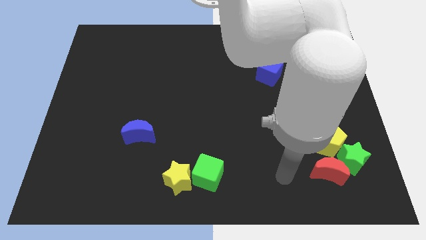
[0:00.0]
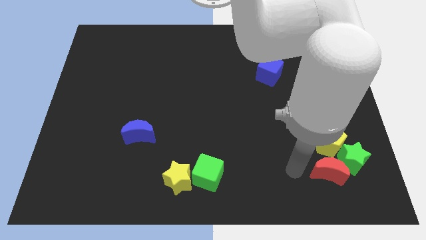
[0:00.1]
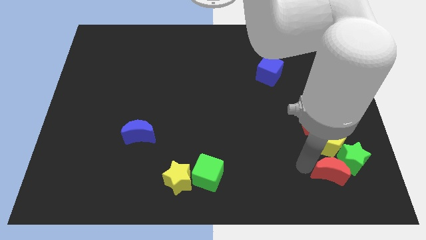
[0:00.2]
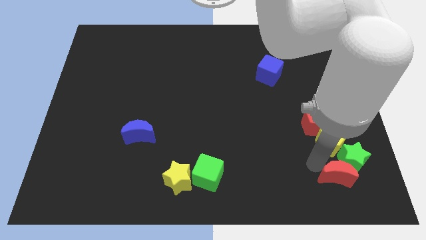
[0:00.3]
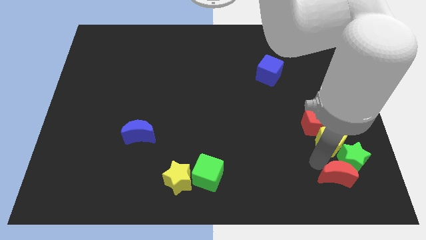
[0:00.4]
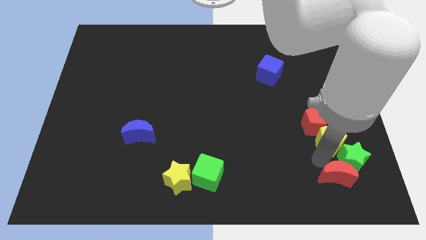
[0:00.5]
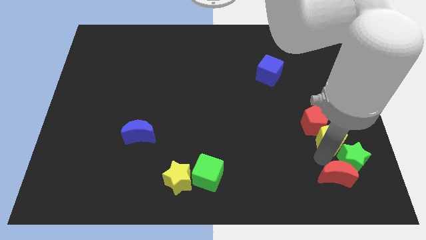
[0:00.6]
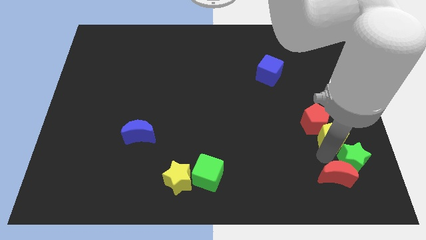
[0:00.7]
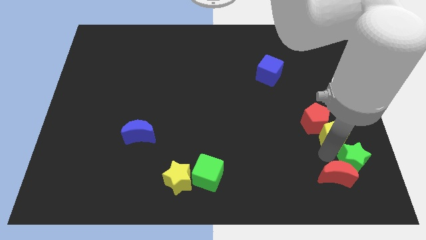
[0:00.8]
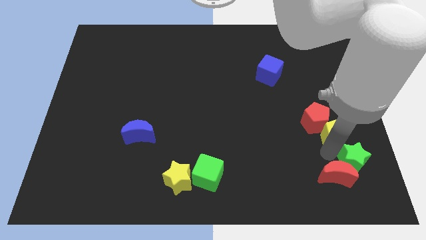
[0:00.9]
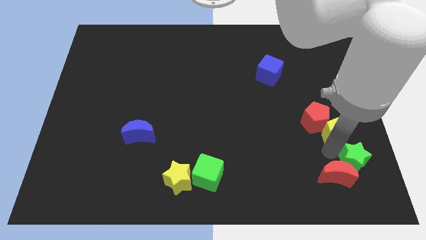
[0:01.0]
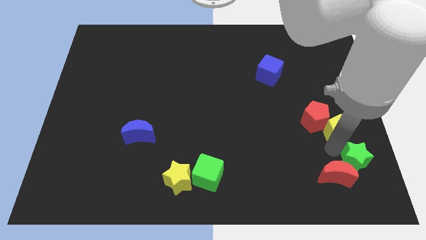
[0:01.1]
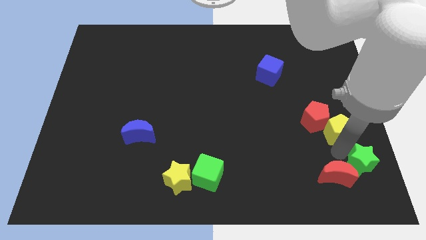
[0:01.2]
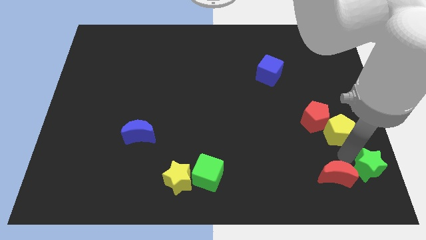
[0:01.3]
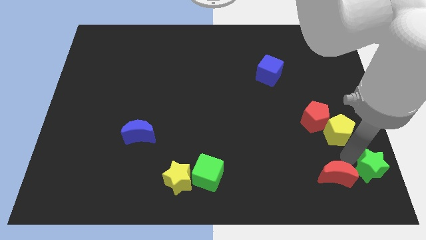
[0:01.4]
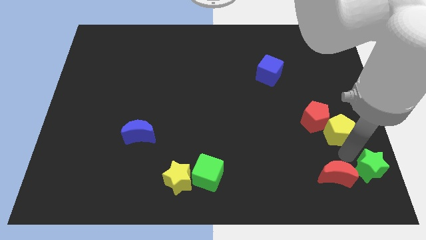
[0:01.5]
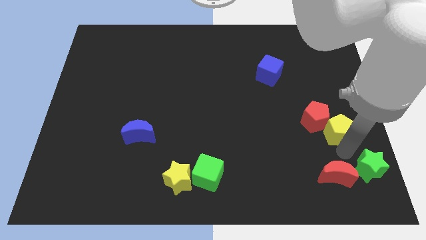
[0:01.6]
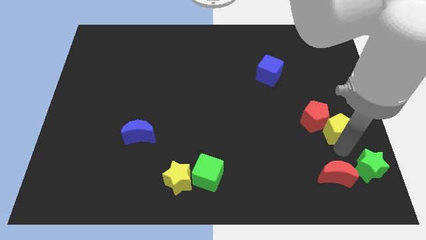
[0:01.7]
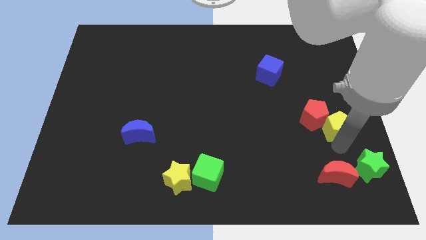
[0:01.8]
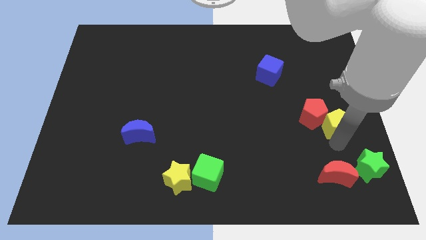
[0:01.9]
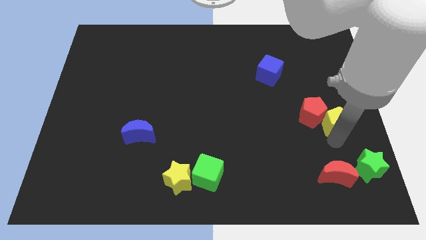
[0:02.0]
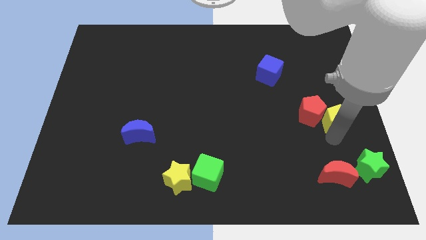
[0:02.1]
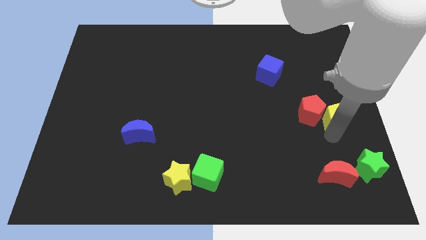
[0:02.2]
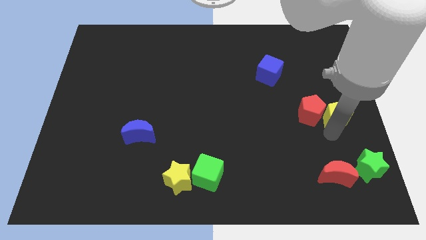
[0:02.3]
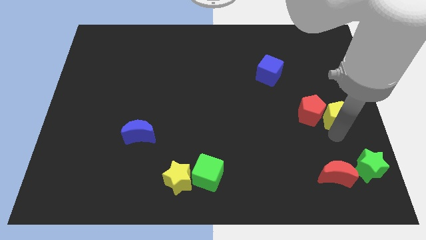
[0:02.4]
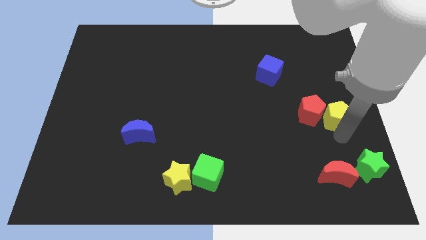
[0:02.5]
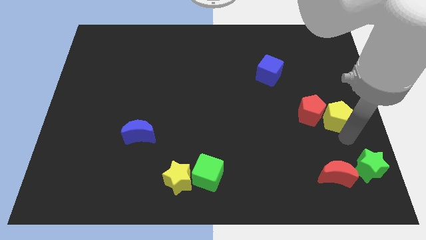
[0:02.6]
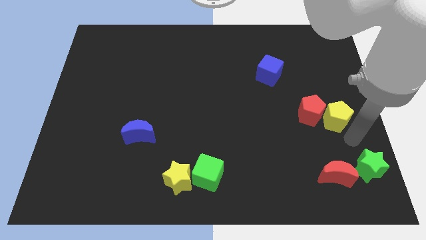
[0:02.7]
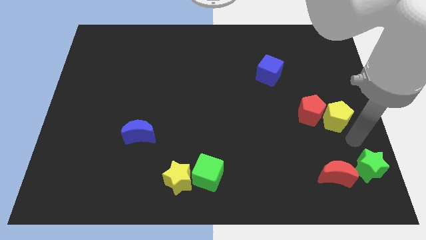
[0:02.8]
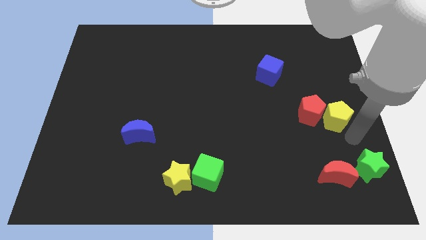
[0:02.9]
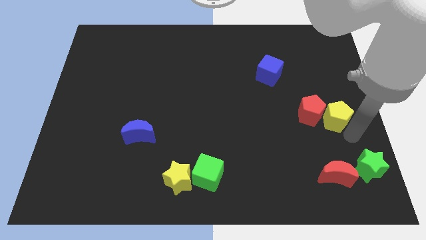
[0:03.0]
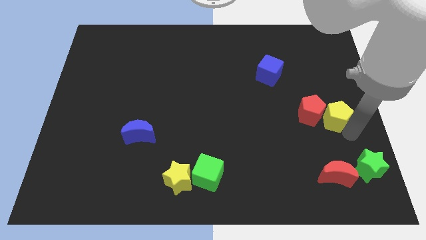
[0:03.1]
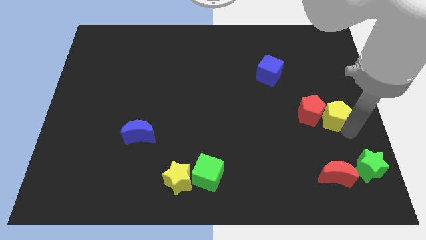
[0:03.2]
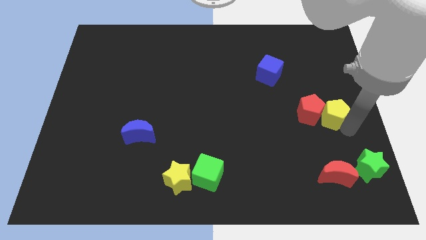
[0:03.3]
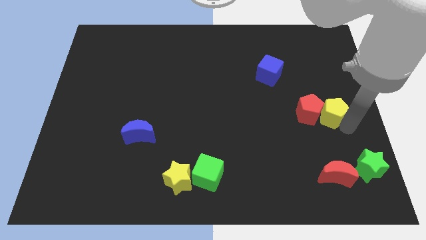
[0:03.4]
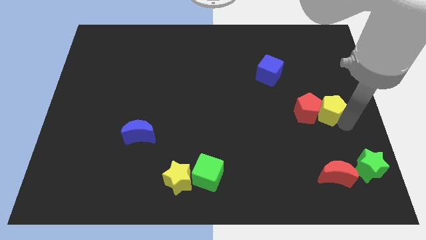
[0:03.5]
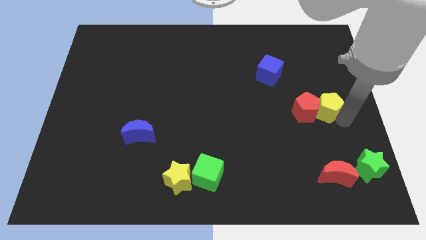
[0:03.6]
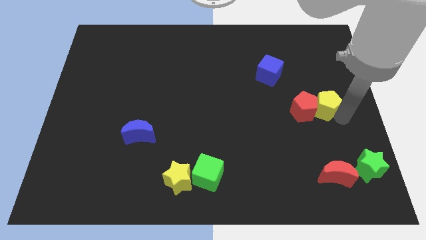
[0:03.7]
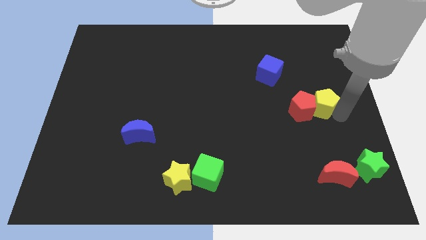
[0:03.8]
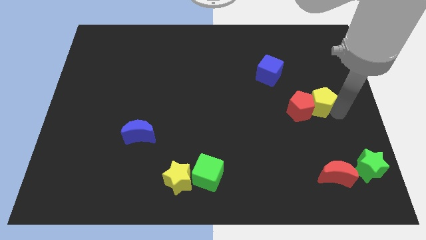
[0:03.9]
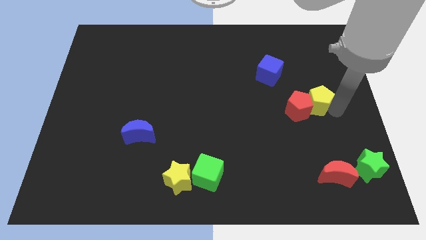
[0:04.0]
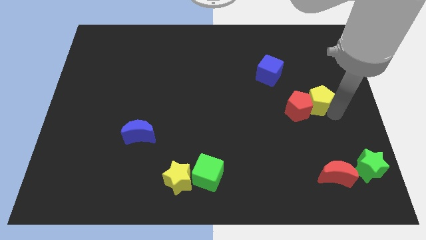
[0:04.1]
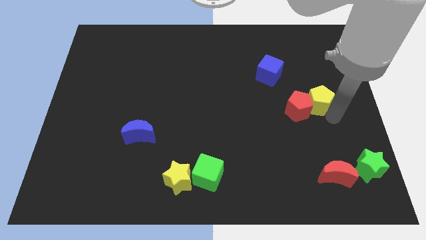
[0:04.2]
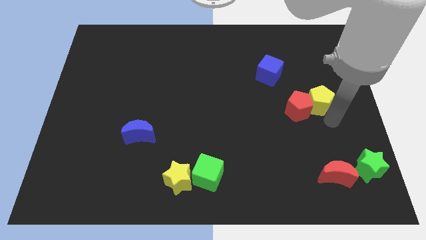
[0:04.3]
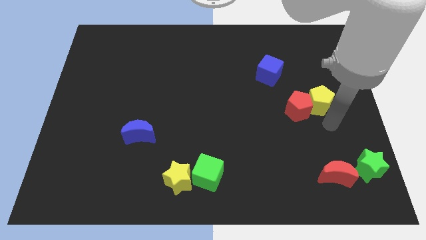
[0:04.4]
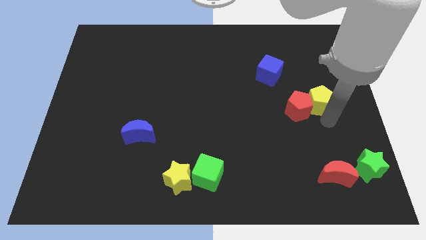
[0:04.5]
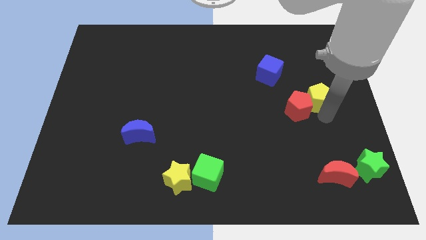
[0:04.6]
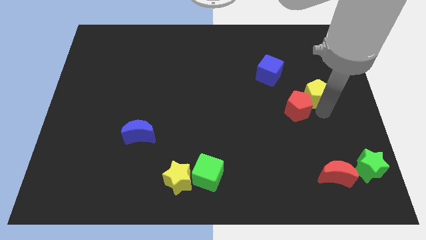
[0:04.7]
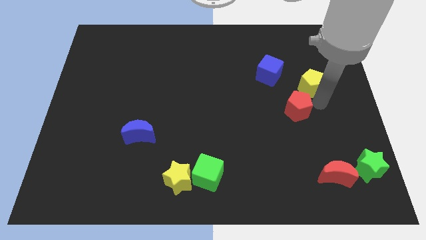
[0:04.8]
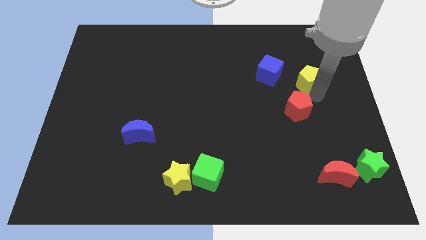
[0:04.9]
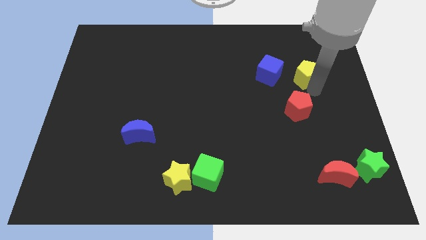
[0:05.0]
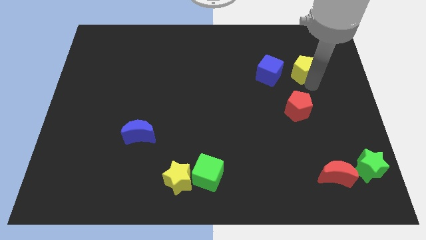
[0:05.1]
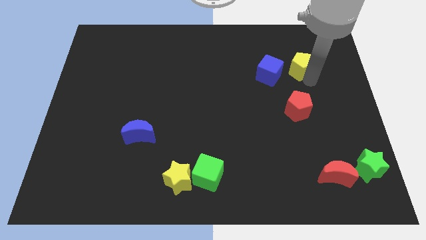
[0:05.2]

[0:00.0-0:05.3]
push the yellow pentagon diagonally up and to the right of the blue cube

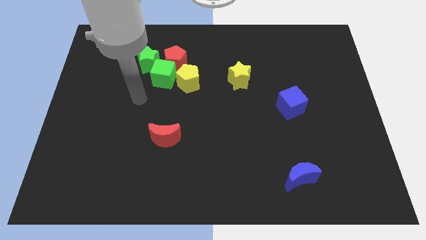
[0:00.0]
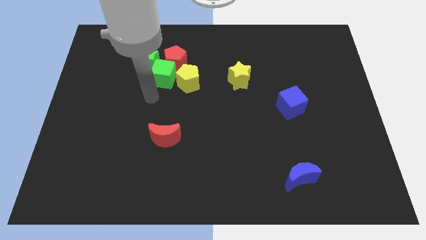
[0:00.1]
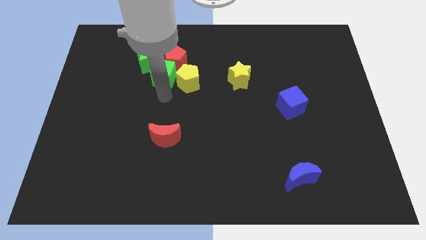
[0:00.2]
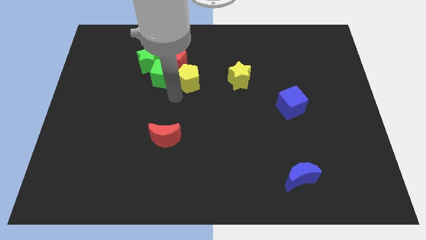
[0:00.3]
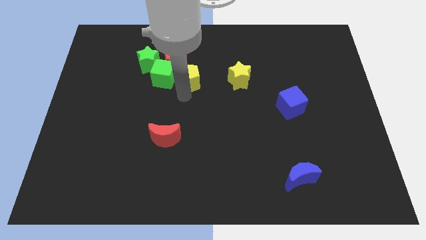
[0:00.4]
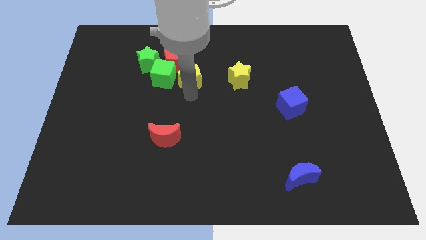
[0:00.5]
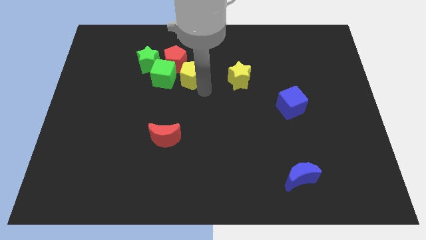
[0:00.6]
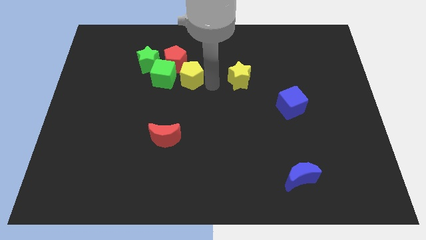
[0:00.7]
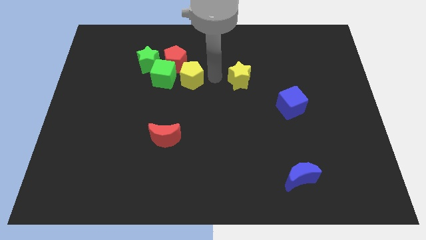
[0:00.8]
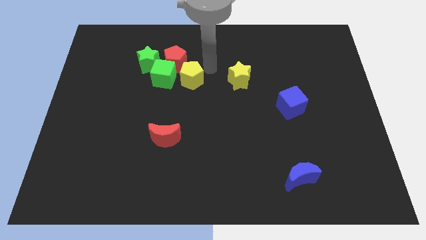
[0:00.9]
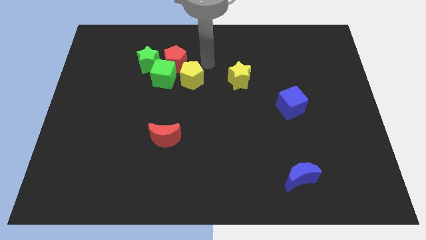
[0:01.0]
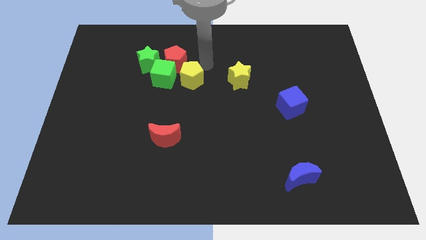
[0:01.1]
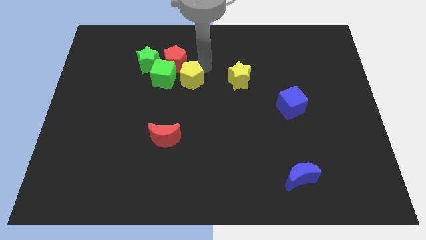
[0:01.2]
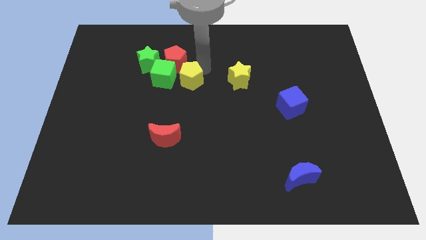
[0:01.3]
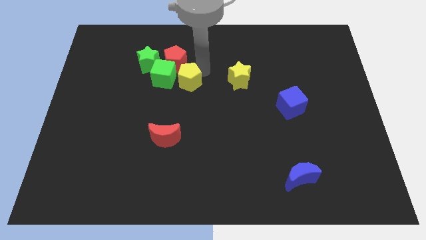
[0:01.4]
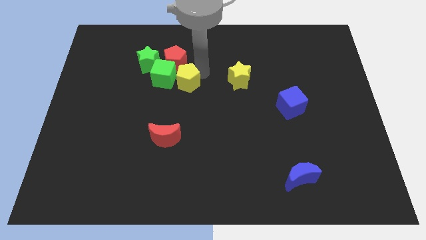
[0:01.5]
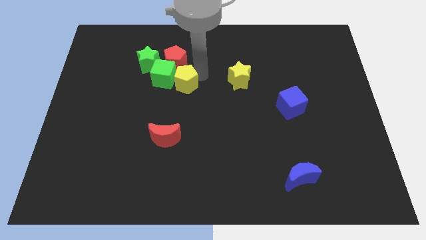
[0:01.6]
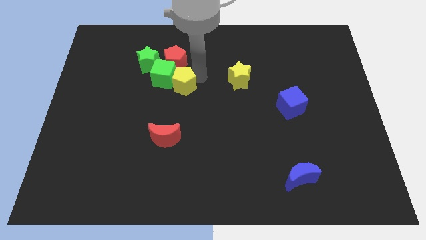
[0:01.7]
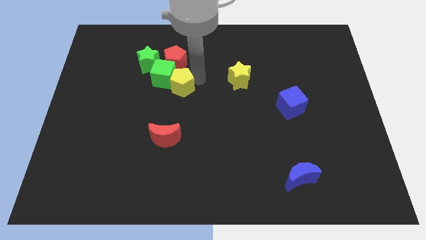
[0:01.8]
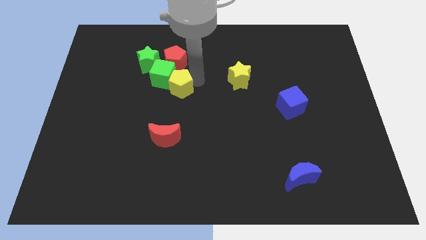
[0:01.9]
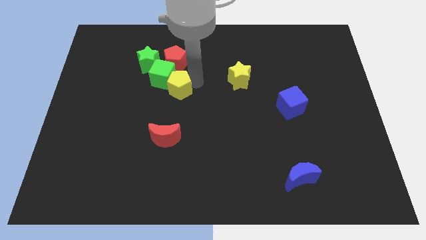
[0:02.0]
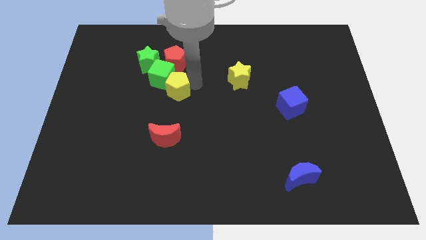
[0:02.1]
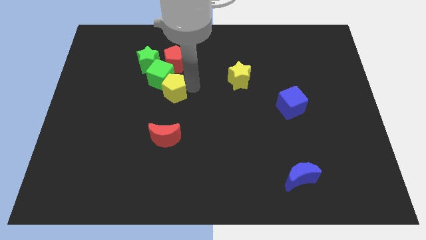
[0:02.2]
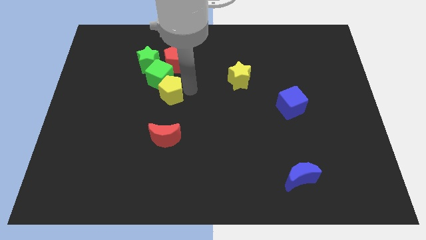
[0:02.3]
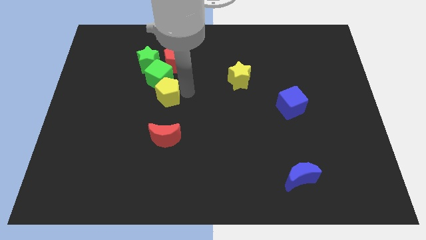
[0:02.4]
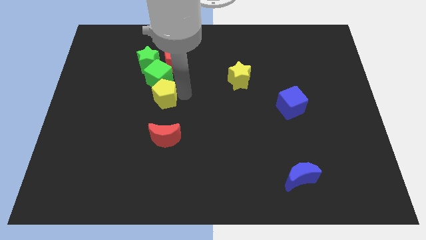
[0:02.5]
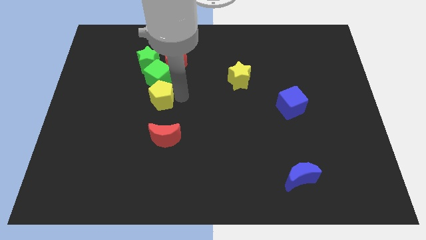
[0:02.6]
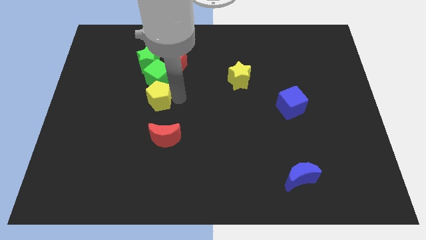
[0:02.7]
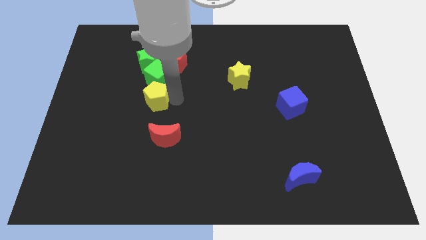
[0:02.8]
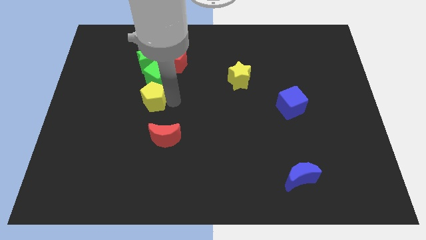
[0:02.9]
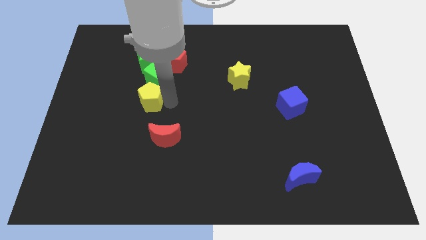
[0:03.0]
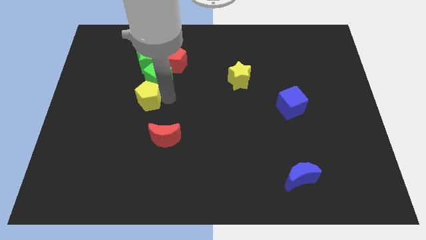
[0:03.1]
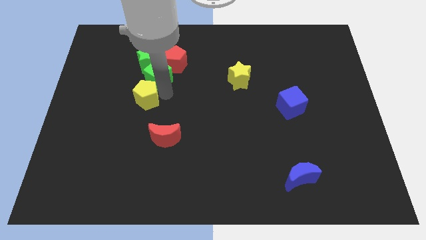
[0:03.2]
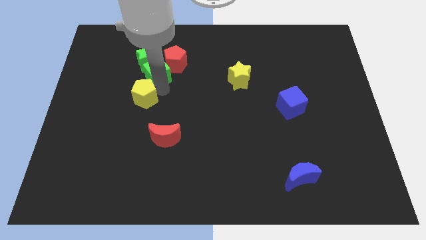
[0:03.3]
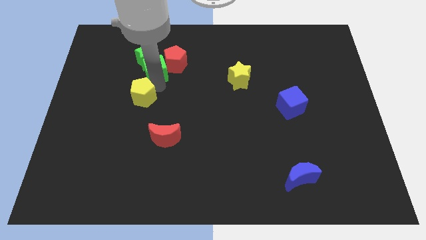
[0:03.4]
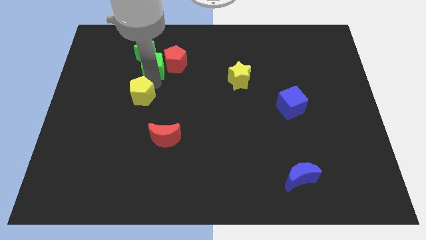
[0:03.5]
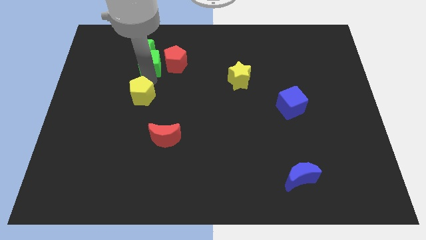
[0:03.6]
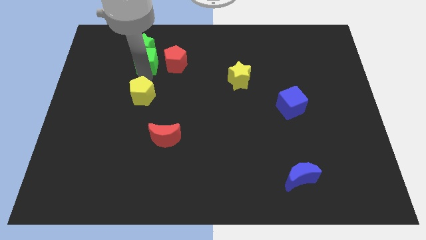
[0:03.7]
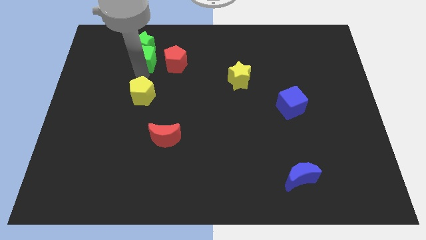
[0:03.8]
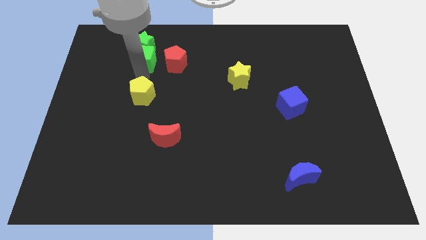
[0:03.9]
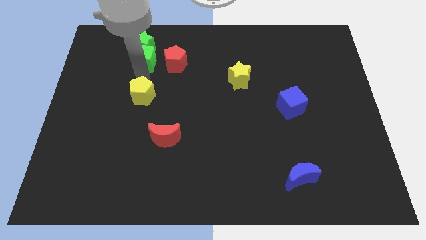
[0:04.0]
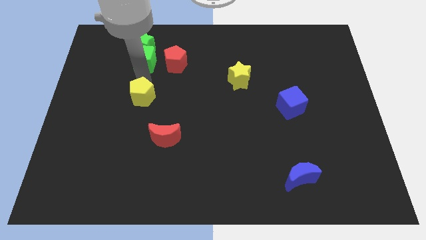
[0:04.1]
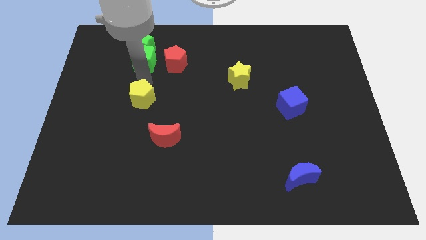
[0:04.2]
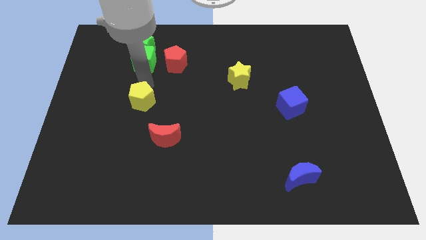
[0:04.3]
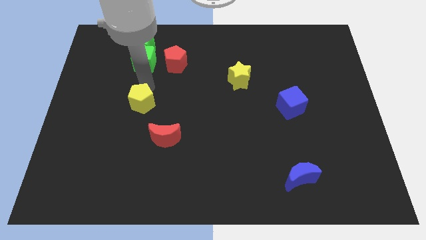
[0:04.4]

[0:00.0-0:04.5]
slide the yellow pentagon to the top left side of the red moon
